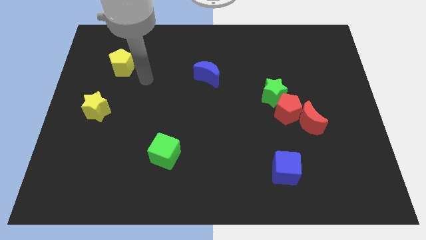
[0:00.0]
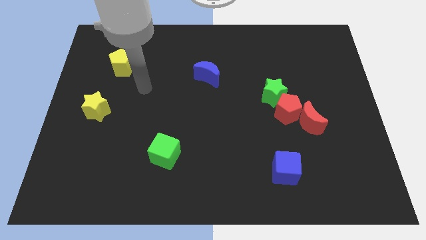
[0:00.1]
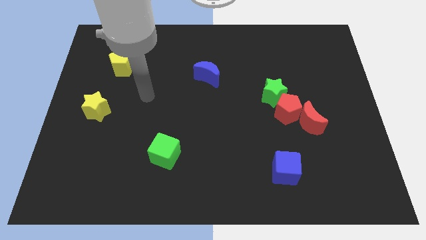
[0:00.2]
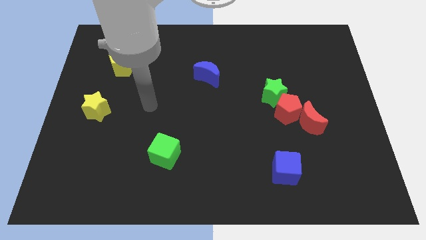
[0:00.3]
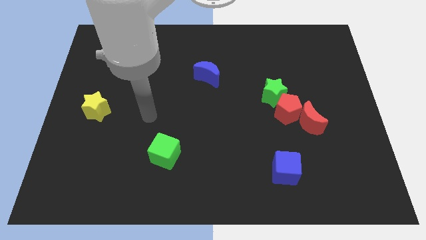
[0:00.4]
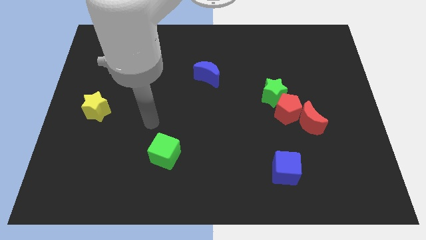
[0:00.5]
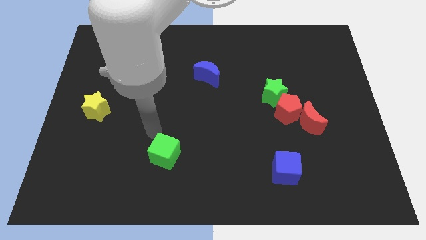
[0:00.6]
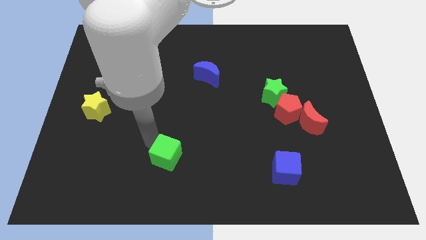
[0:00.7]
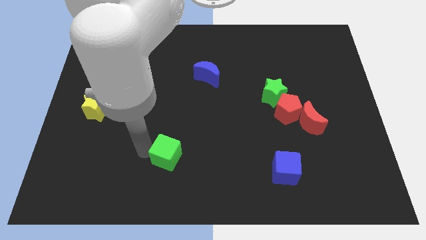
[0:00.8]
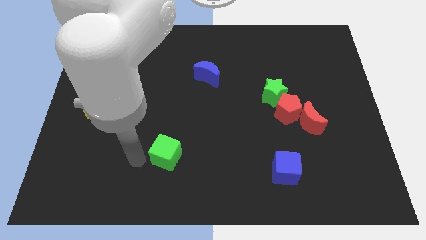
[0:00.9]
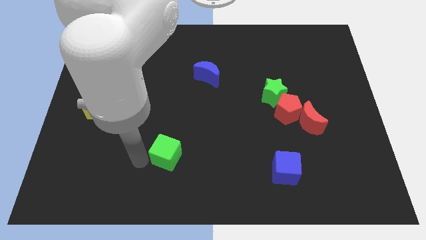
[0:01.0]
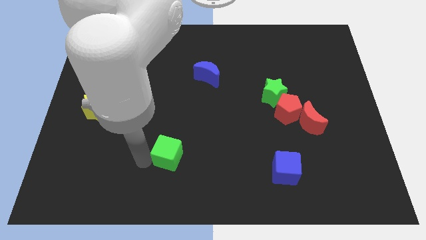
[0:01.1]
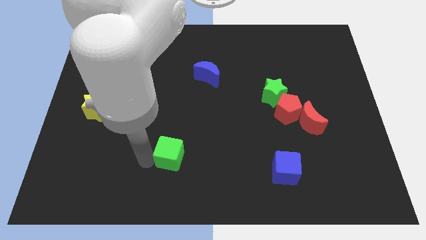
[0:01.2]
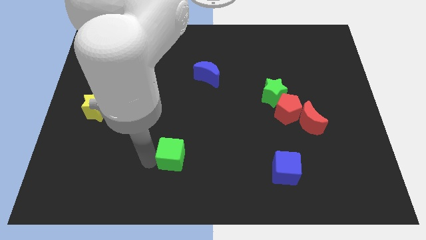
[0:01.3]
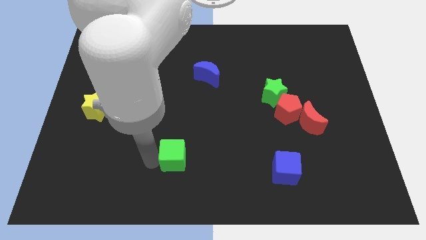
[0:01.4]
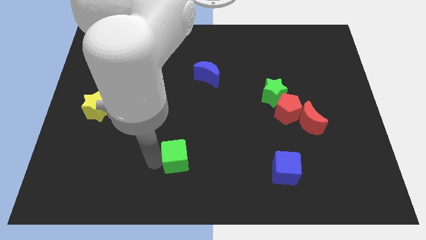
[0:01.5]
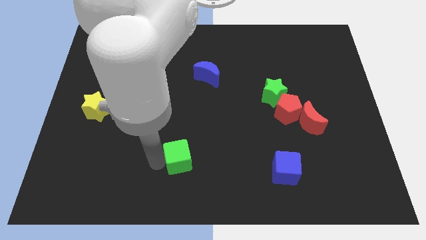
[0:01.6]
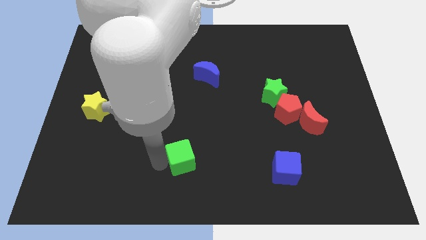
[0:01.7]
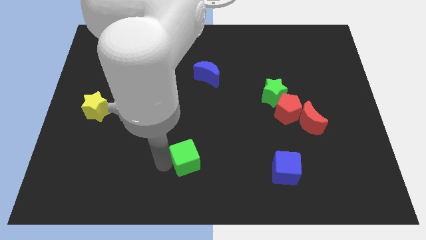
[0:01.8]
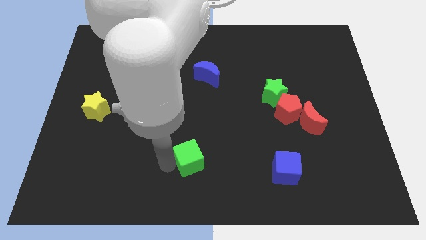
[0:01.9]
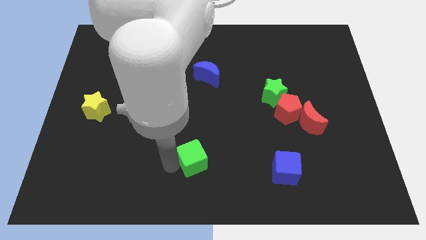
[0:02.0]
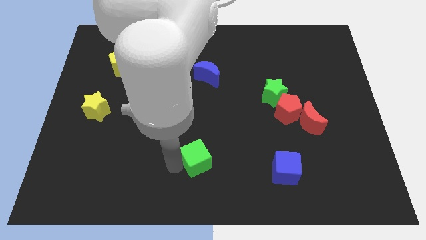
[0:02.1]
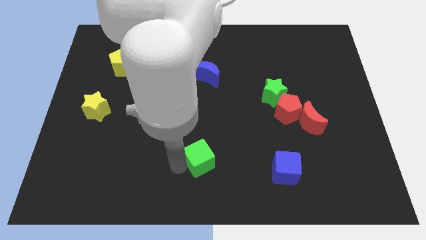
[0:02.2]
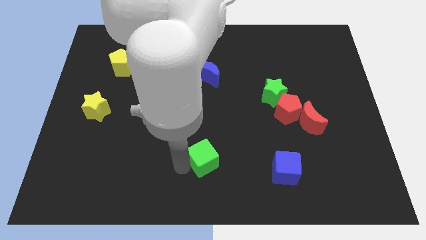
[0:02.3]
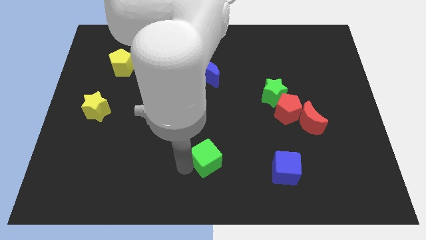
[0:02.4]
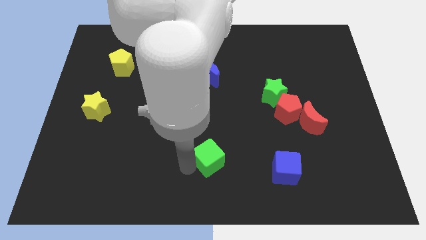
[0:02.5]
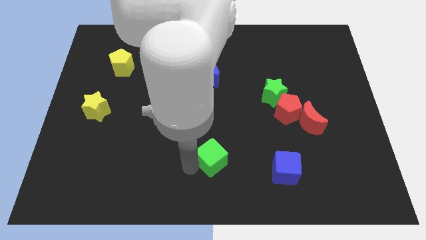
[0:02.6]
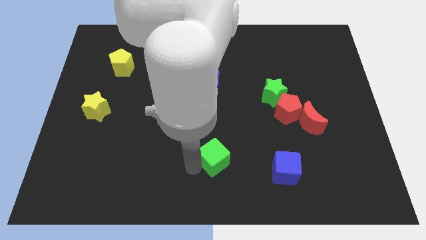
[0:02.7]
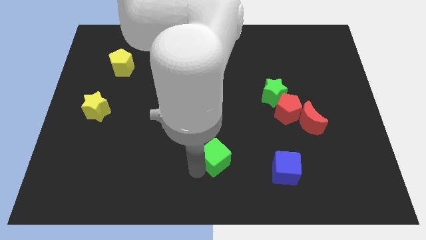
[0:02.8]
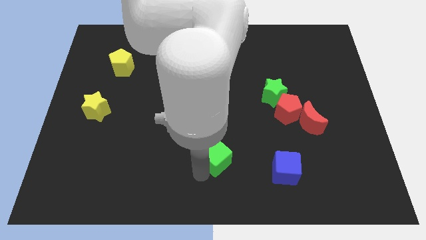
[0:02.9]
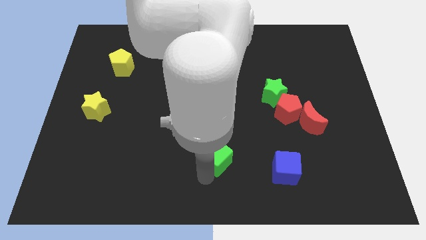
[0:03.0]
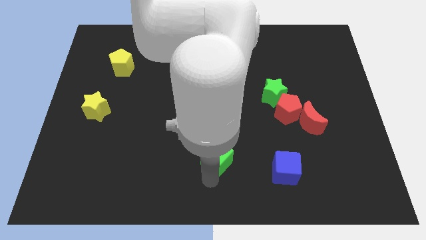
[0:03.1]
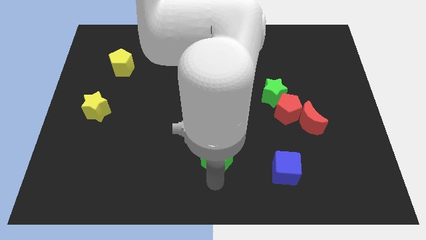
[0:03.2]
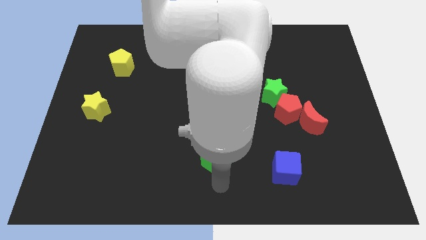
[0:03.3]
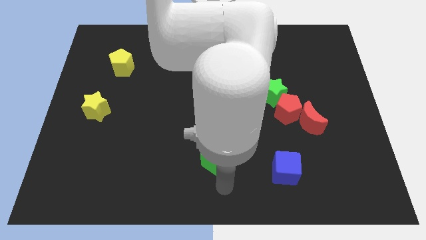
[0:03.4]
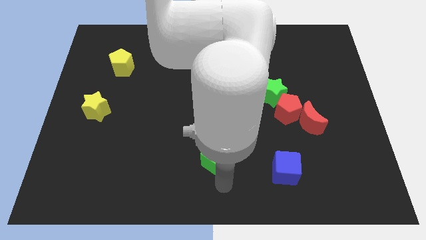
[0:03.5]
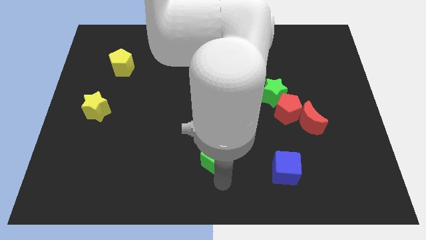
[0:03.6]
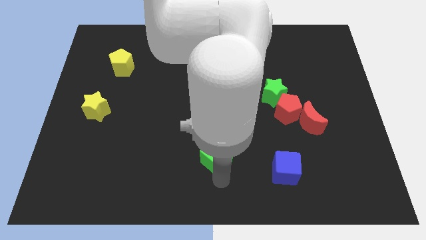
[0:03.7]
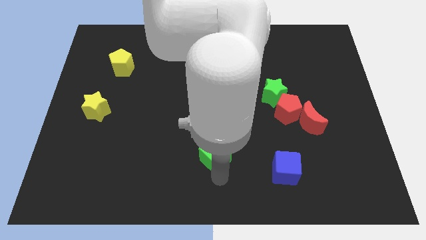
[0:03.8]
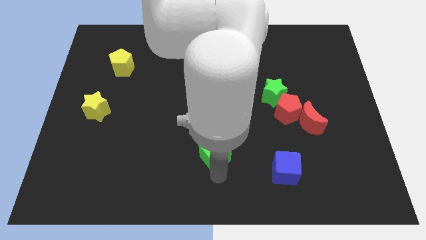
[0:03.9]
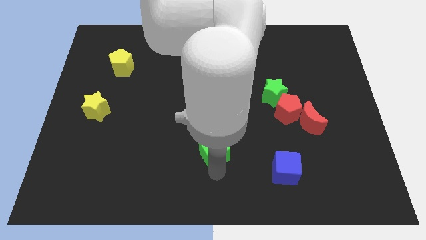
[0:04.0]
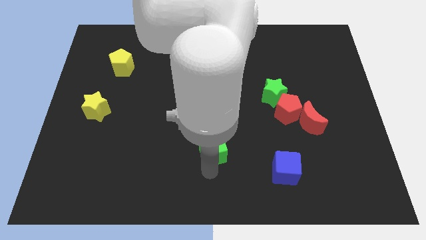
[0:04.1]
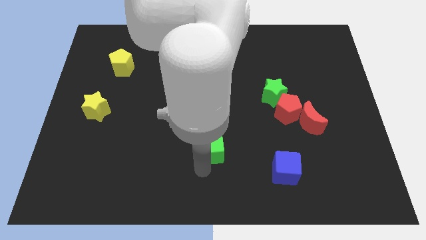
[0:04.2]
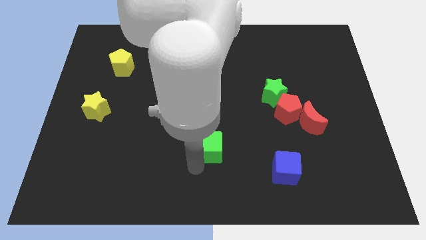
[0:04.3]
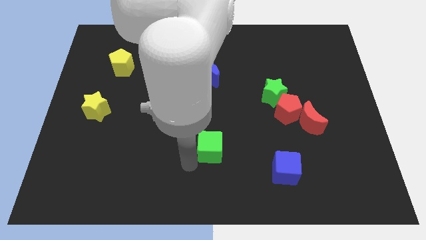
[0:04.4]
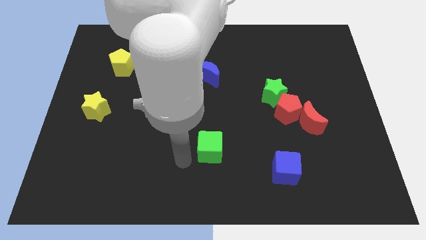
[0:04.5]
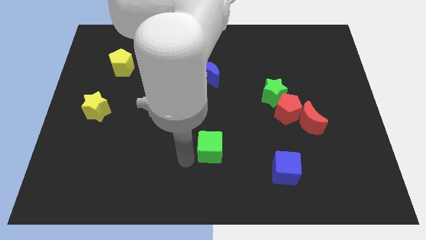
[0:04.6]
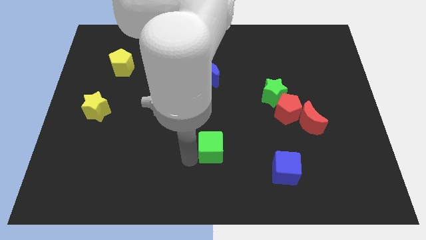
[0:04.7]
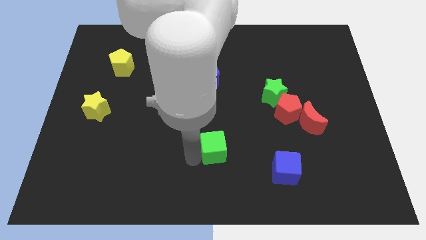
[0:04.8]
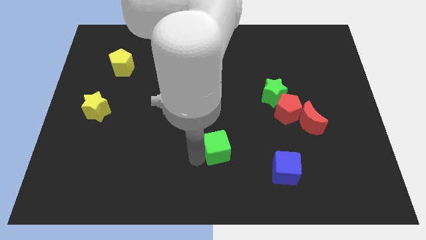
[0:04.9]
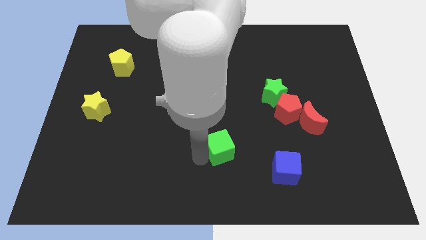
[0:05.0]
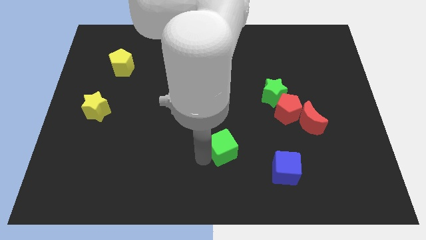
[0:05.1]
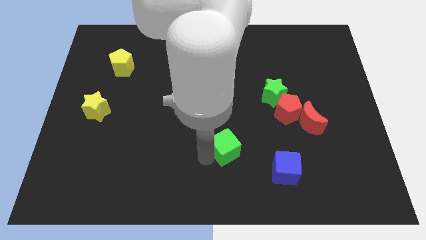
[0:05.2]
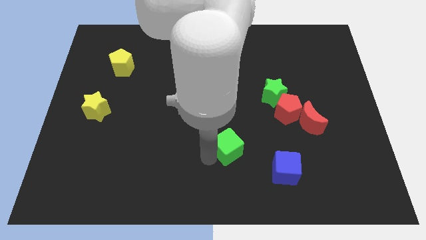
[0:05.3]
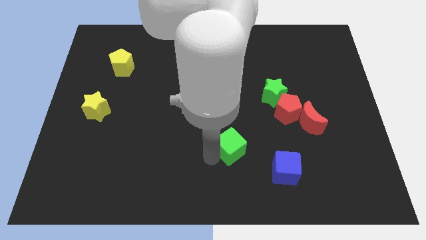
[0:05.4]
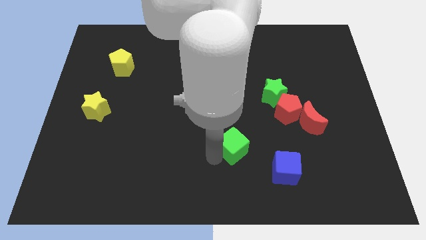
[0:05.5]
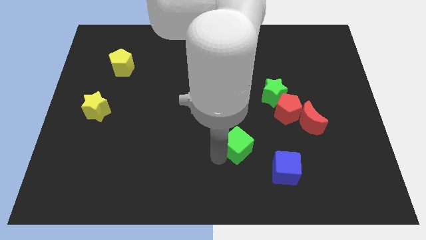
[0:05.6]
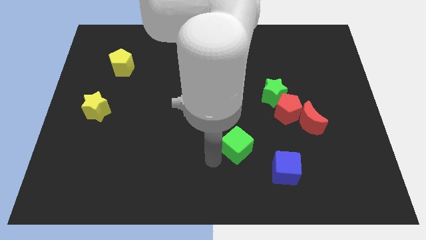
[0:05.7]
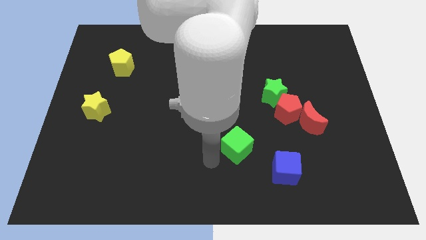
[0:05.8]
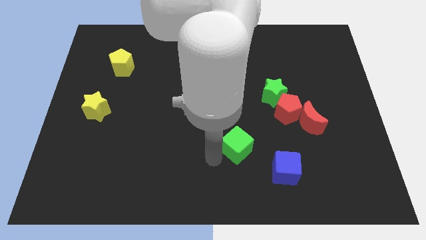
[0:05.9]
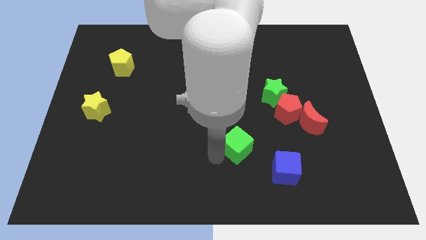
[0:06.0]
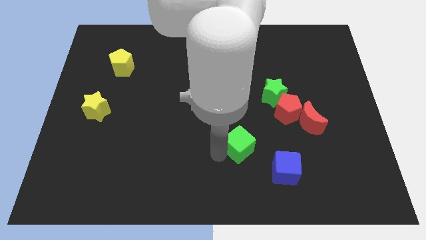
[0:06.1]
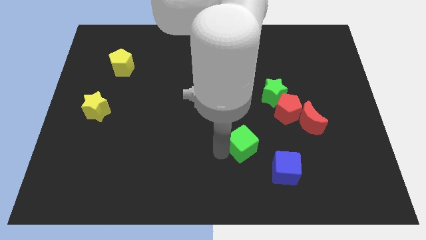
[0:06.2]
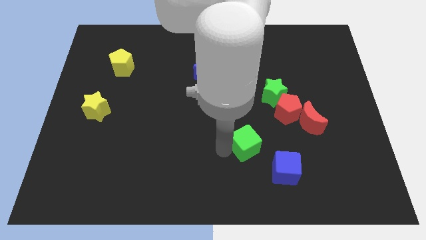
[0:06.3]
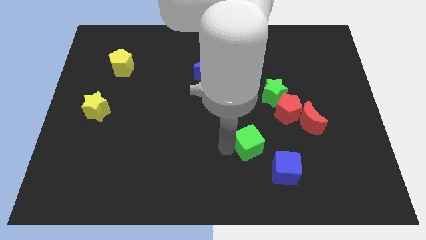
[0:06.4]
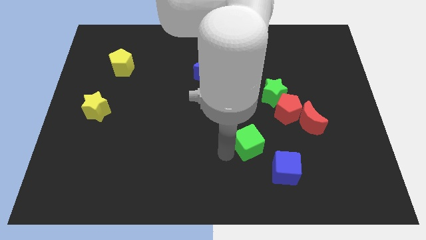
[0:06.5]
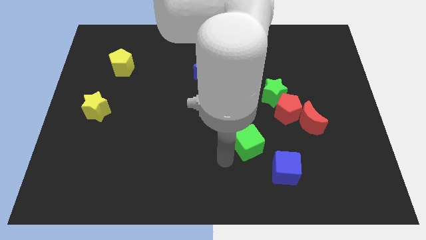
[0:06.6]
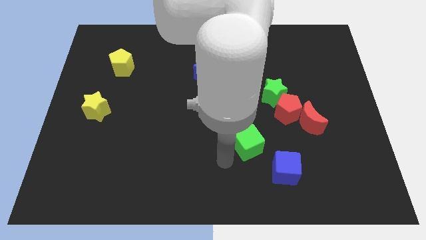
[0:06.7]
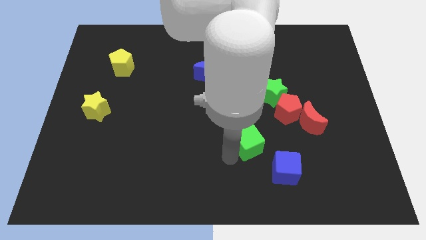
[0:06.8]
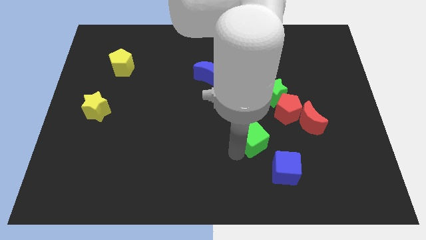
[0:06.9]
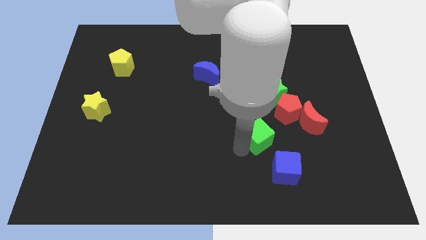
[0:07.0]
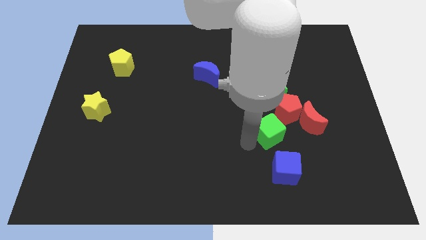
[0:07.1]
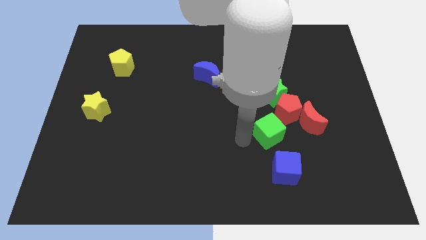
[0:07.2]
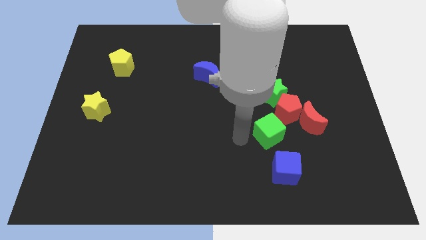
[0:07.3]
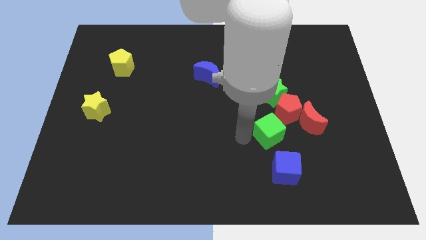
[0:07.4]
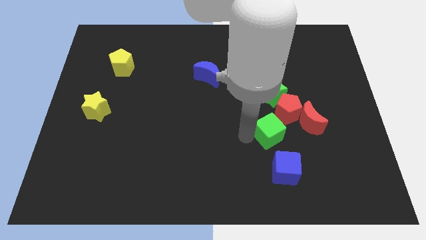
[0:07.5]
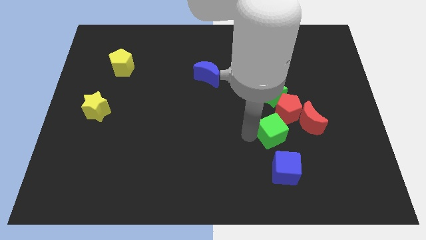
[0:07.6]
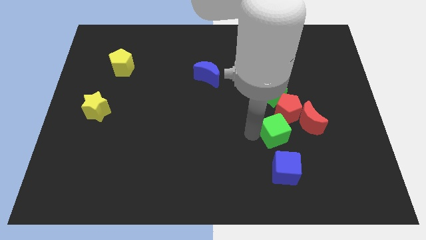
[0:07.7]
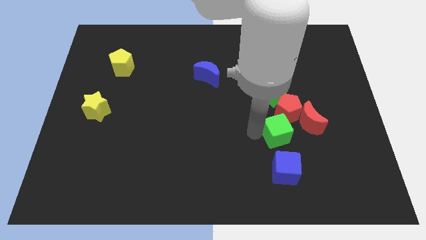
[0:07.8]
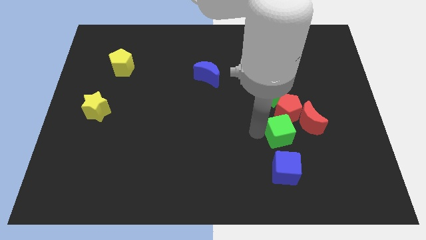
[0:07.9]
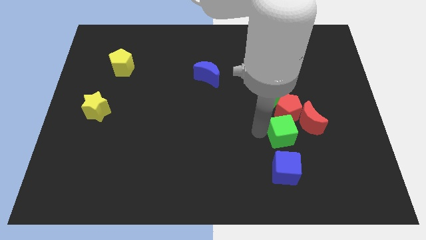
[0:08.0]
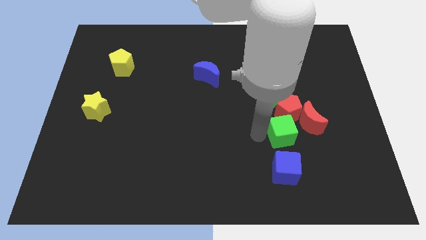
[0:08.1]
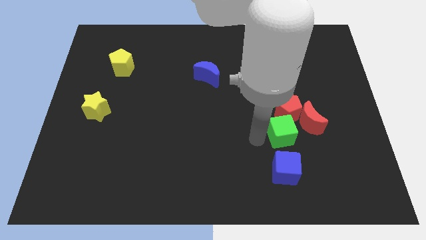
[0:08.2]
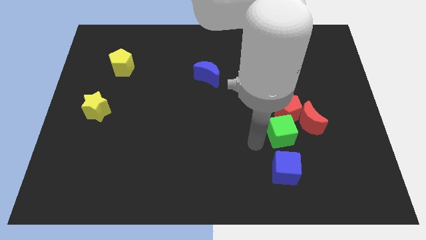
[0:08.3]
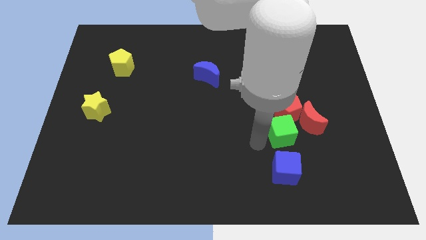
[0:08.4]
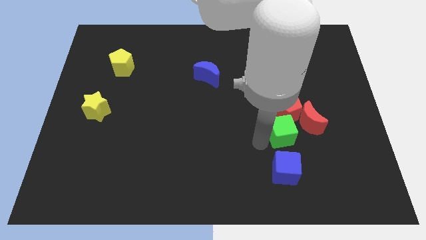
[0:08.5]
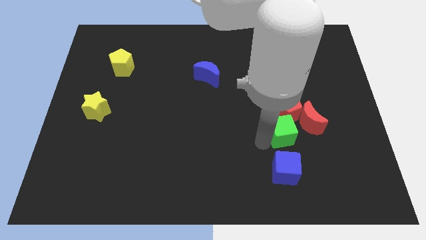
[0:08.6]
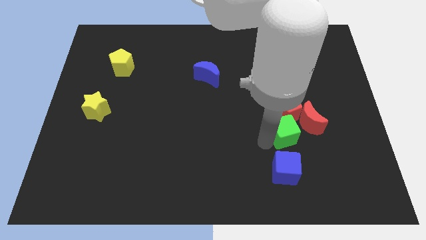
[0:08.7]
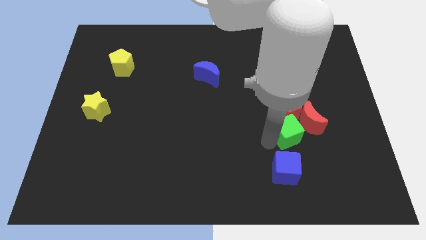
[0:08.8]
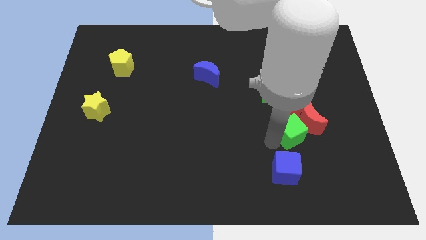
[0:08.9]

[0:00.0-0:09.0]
slide the green cube next to the red moon
